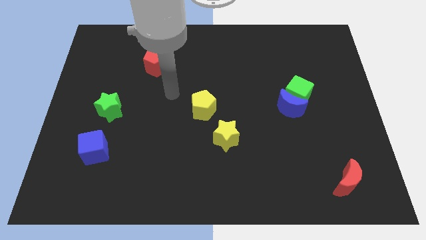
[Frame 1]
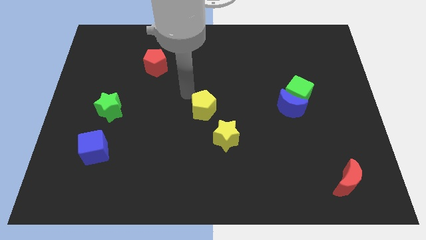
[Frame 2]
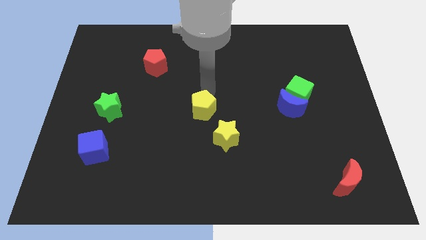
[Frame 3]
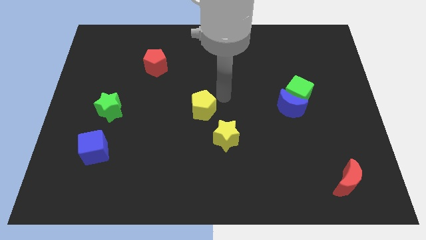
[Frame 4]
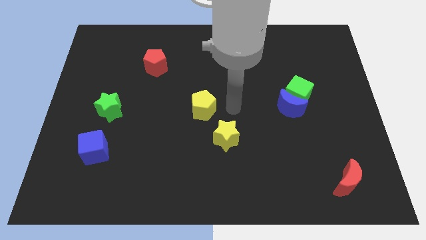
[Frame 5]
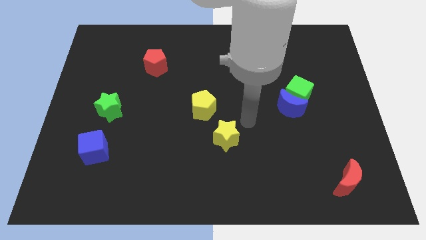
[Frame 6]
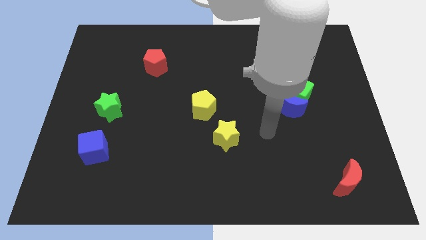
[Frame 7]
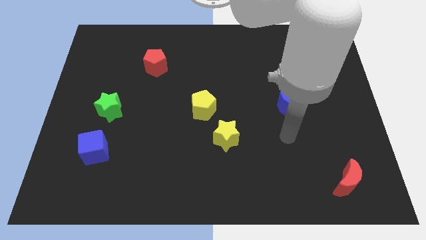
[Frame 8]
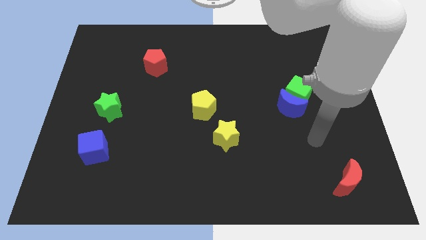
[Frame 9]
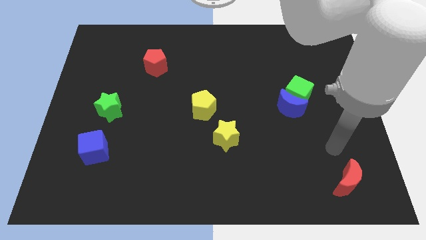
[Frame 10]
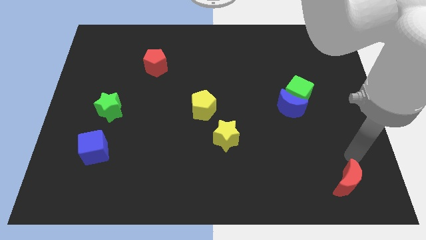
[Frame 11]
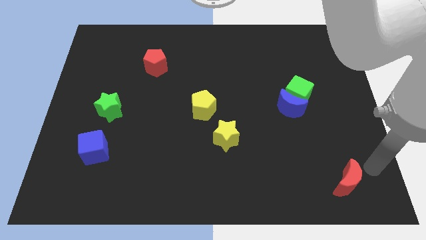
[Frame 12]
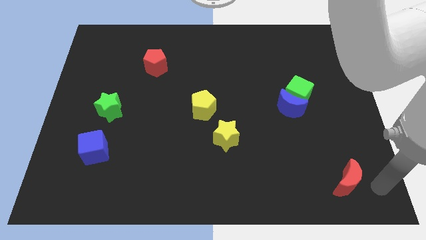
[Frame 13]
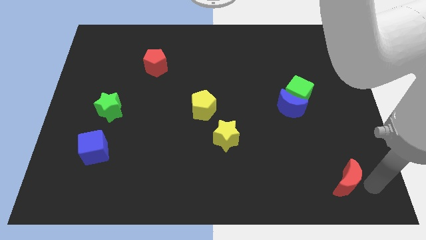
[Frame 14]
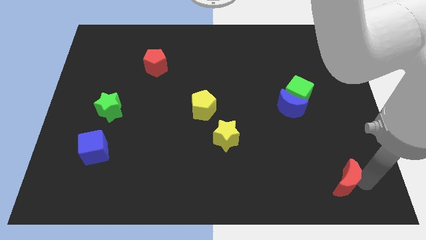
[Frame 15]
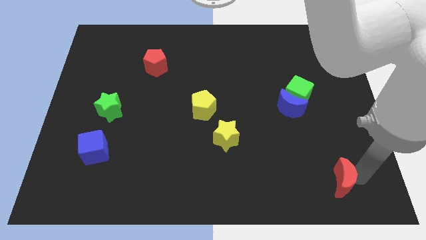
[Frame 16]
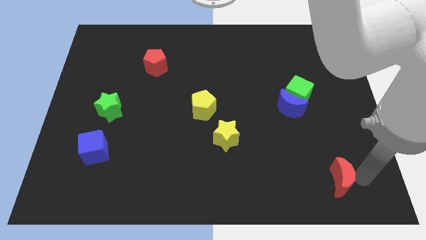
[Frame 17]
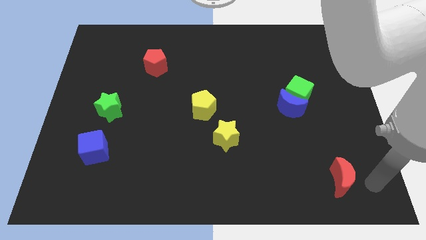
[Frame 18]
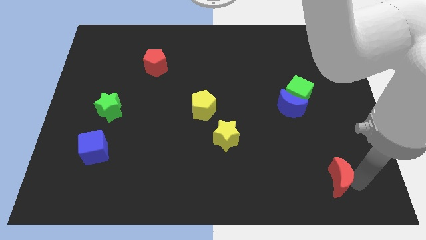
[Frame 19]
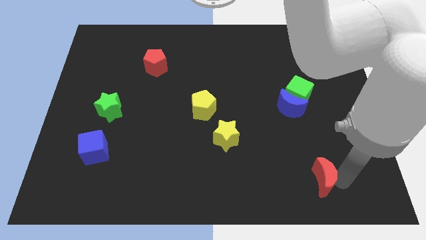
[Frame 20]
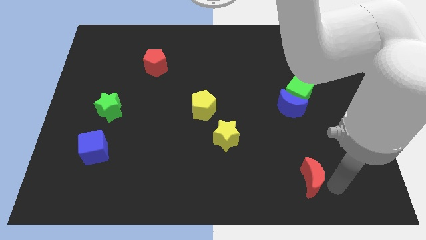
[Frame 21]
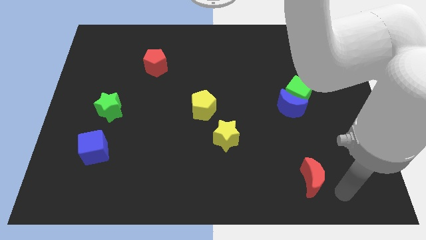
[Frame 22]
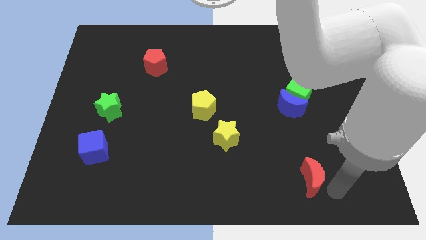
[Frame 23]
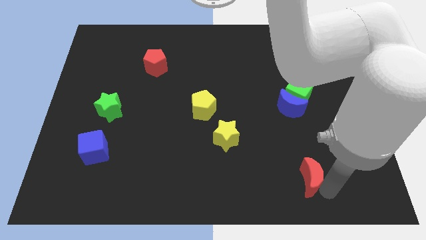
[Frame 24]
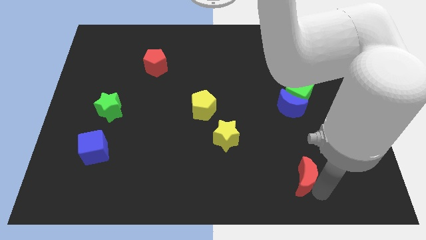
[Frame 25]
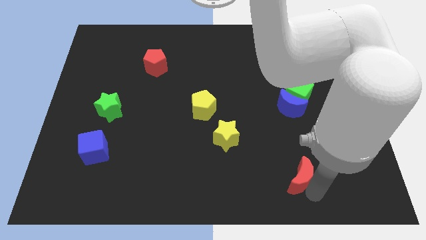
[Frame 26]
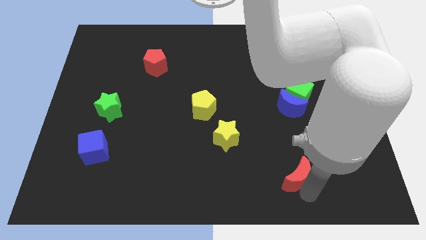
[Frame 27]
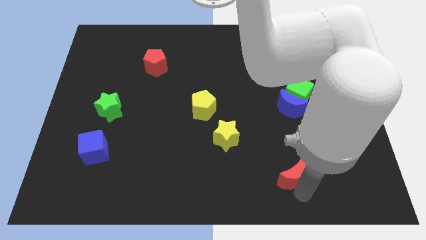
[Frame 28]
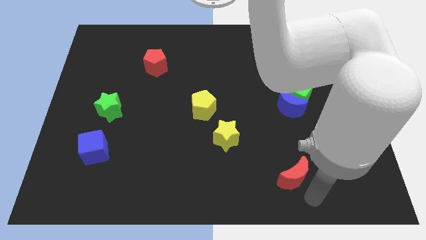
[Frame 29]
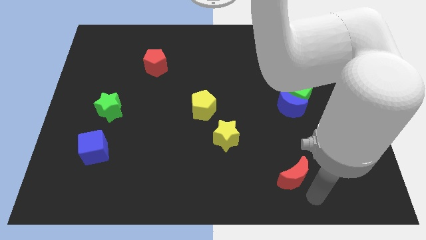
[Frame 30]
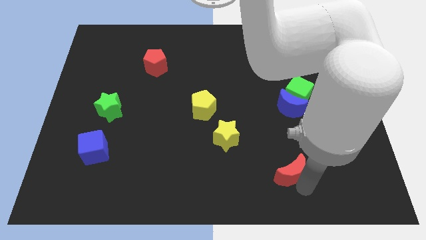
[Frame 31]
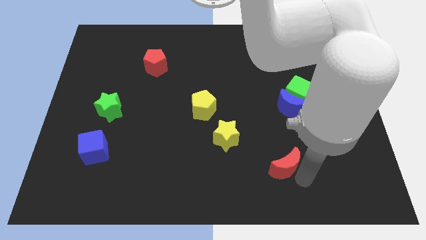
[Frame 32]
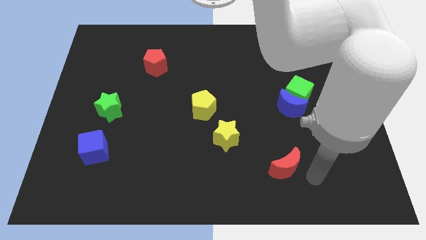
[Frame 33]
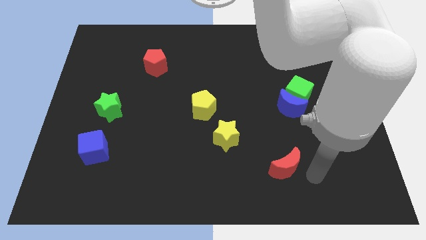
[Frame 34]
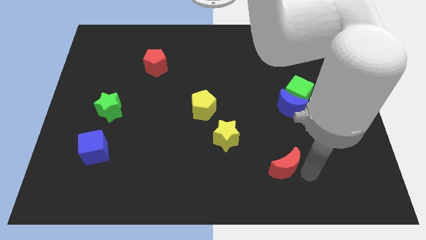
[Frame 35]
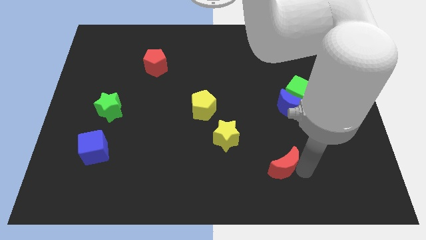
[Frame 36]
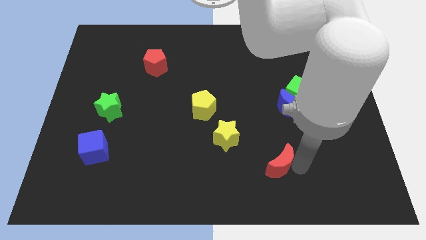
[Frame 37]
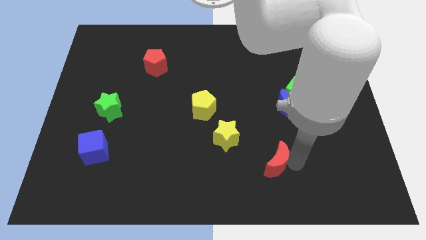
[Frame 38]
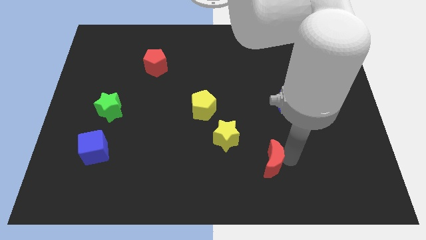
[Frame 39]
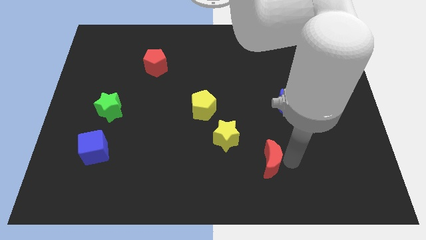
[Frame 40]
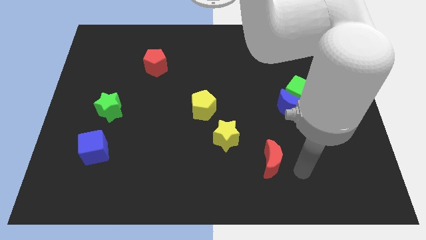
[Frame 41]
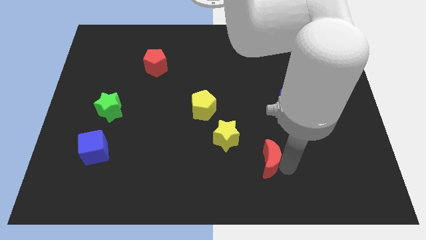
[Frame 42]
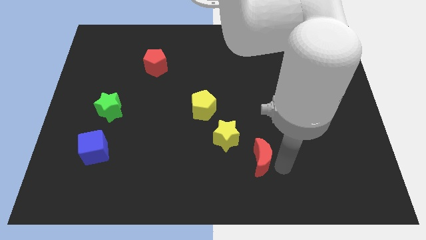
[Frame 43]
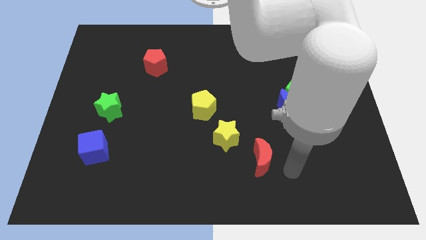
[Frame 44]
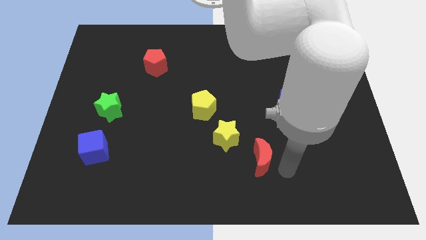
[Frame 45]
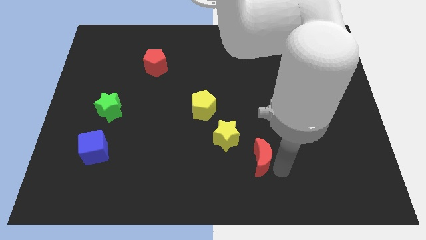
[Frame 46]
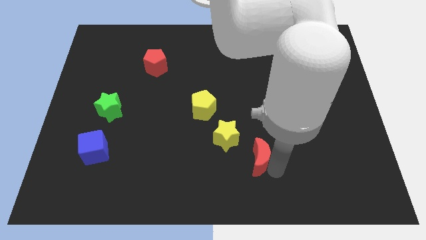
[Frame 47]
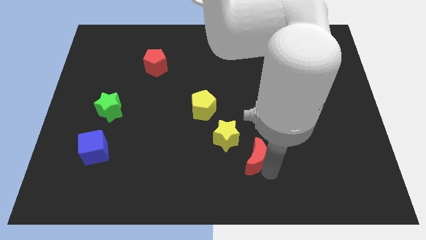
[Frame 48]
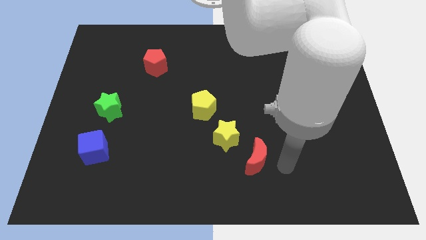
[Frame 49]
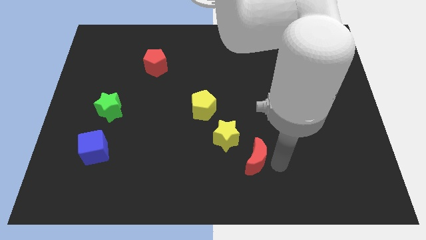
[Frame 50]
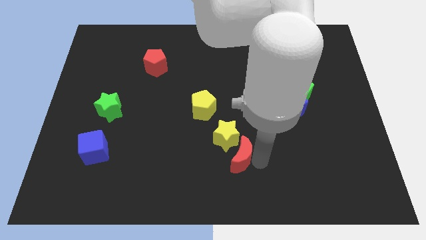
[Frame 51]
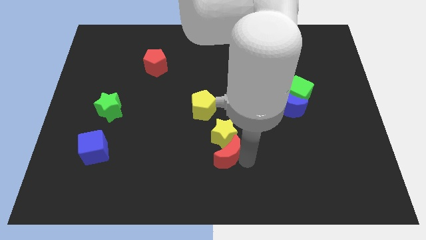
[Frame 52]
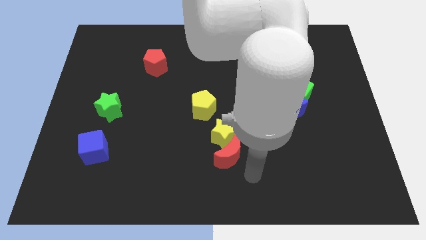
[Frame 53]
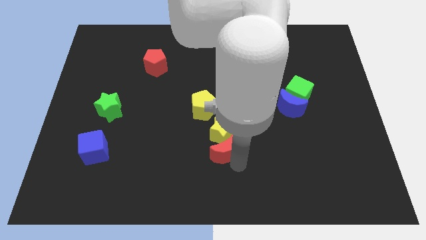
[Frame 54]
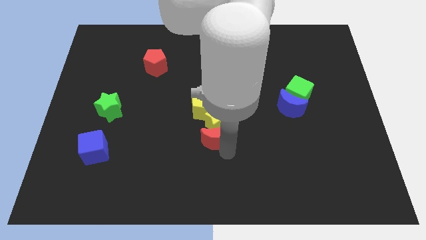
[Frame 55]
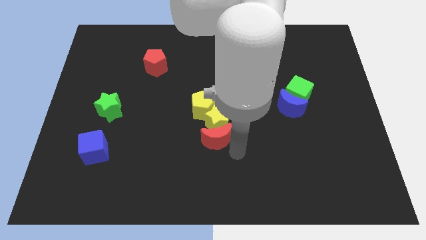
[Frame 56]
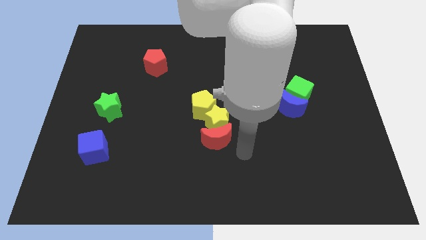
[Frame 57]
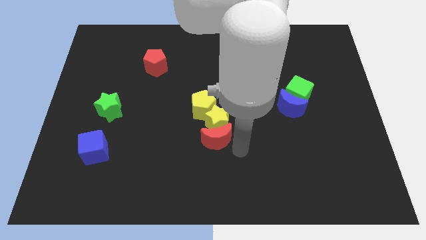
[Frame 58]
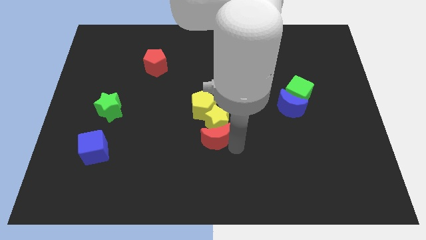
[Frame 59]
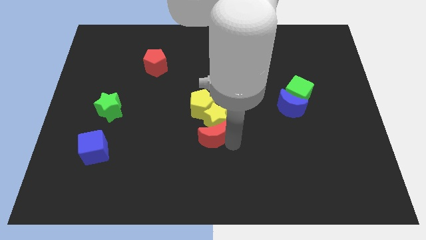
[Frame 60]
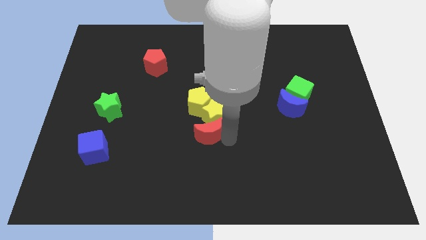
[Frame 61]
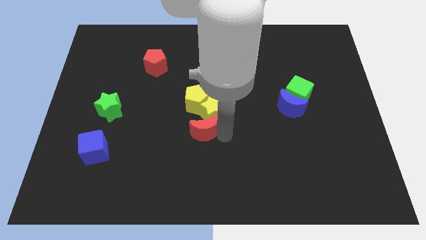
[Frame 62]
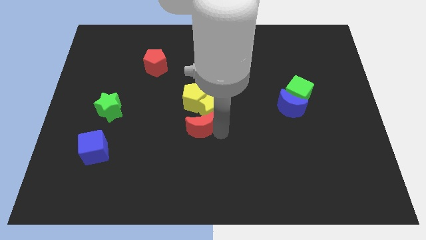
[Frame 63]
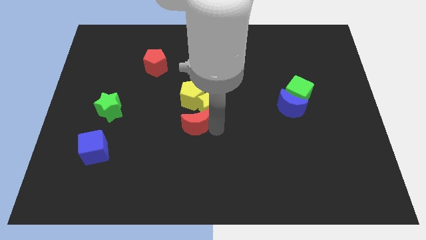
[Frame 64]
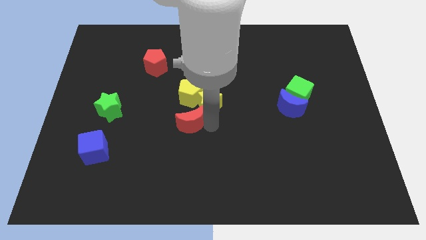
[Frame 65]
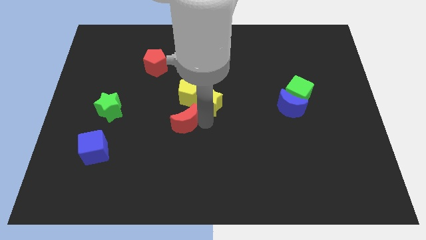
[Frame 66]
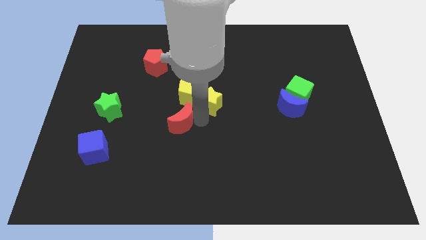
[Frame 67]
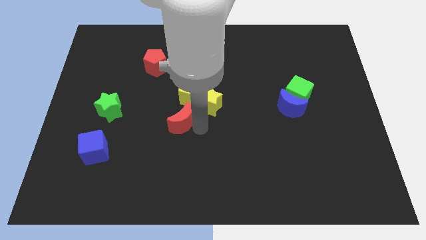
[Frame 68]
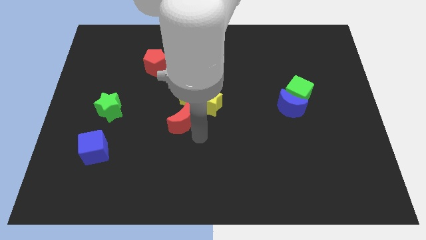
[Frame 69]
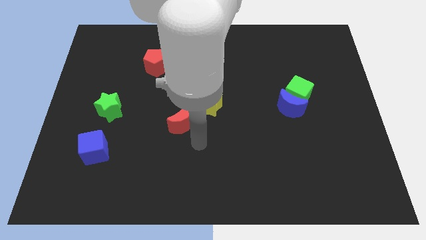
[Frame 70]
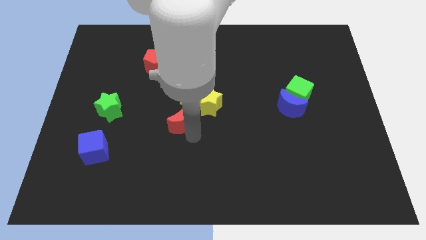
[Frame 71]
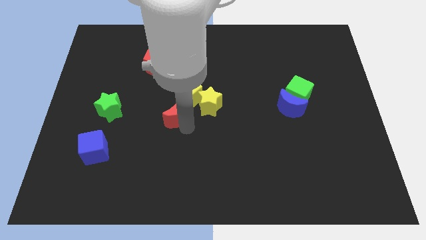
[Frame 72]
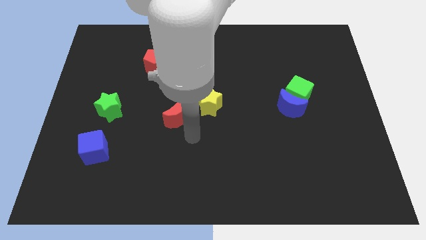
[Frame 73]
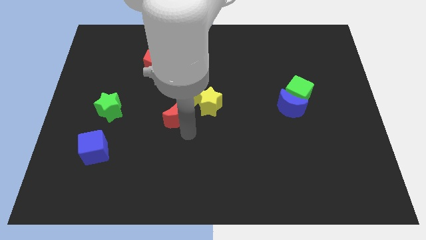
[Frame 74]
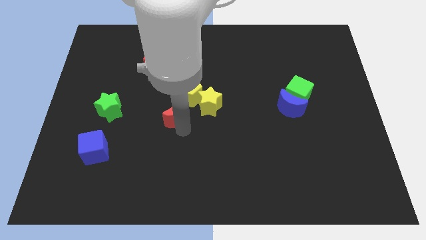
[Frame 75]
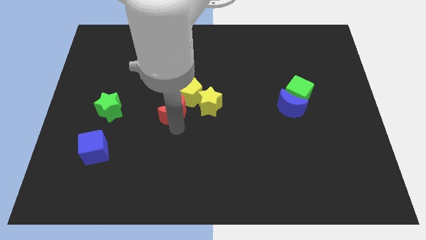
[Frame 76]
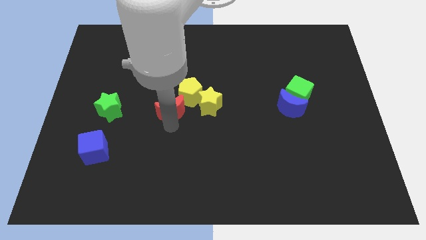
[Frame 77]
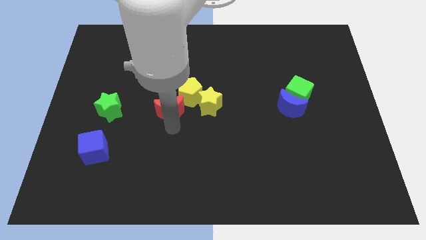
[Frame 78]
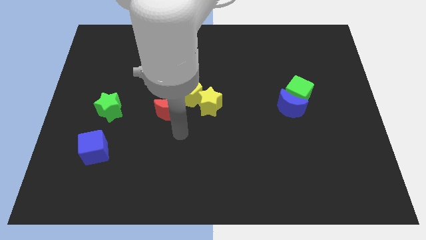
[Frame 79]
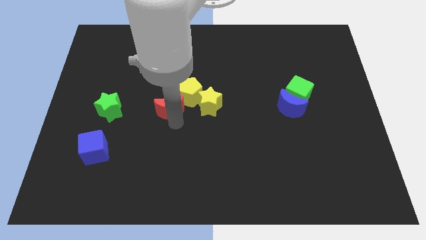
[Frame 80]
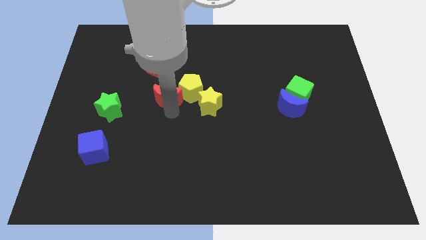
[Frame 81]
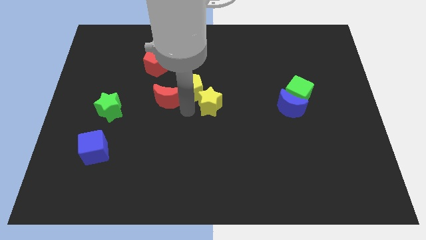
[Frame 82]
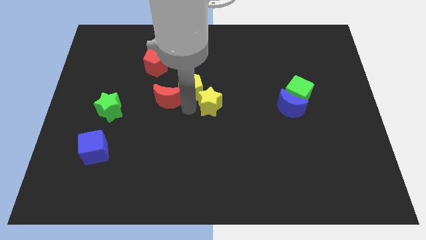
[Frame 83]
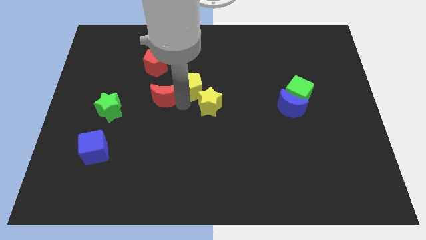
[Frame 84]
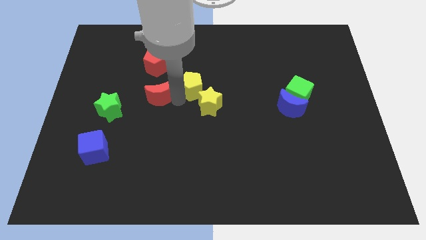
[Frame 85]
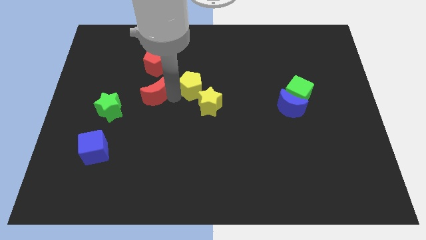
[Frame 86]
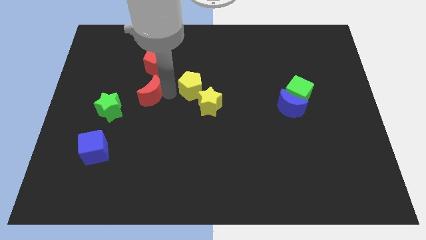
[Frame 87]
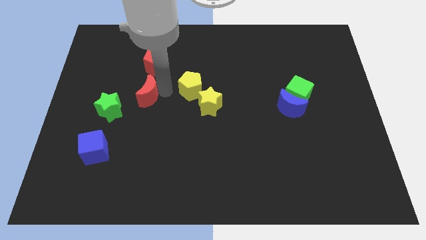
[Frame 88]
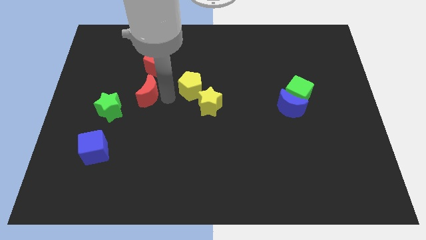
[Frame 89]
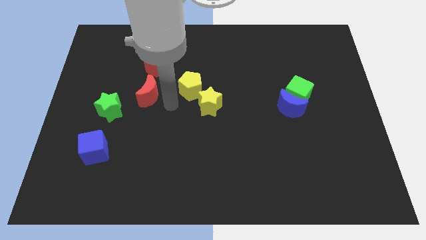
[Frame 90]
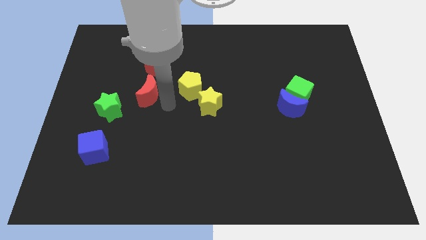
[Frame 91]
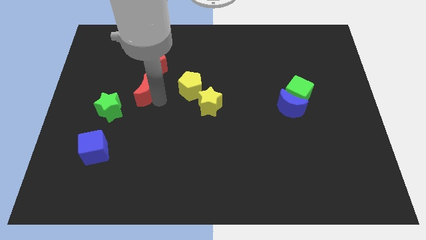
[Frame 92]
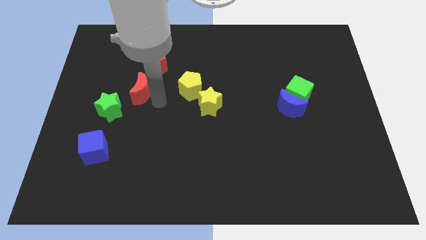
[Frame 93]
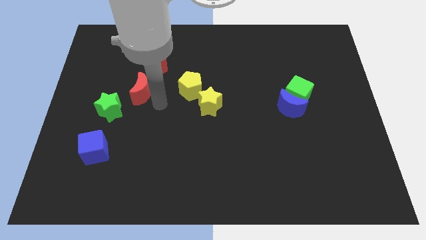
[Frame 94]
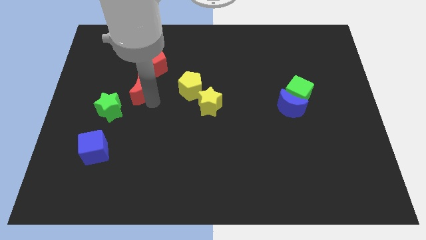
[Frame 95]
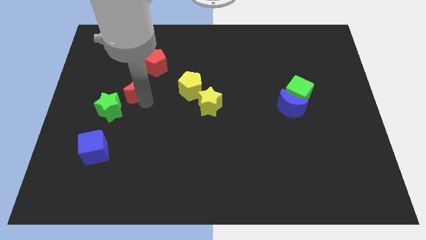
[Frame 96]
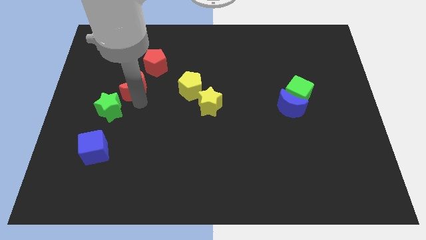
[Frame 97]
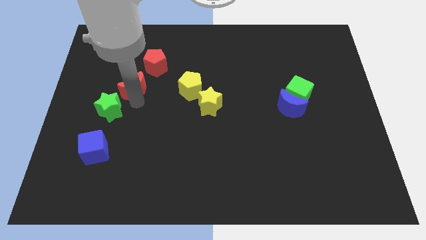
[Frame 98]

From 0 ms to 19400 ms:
put the red moon above the green star
